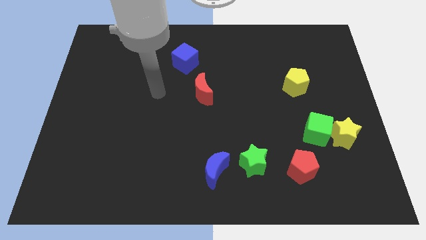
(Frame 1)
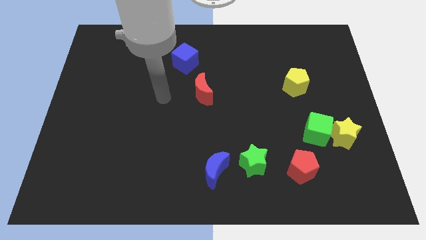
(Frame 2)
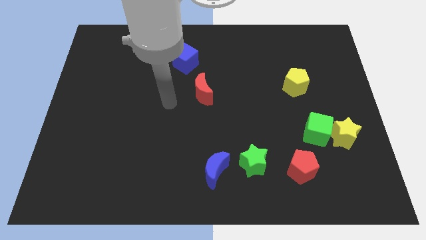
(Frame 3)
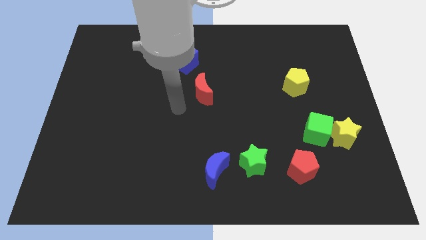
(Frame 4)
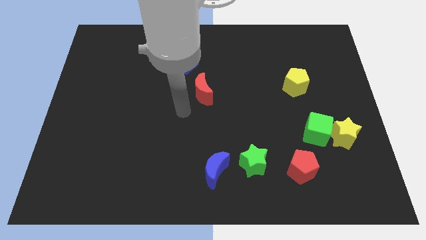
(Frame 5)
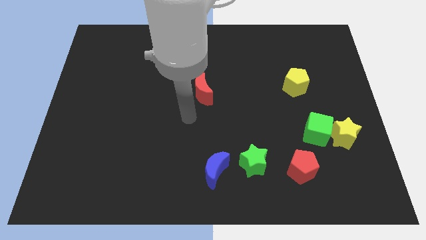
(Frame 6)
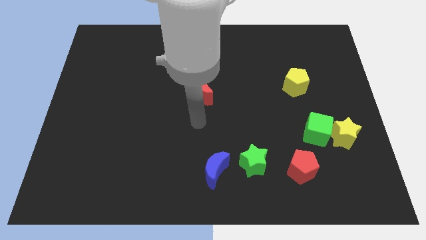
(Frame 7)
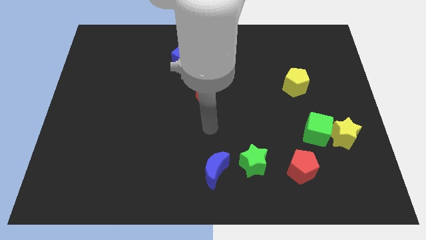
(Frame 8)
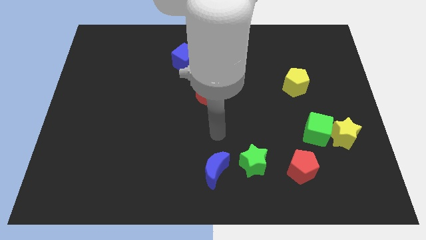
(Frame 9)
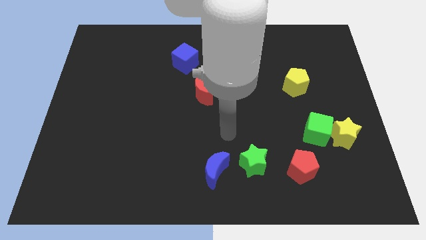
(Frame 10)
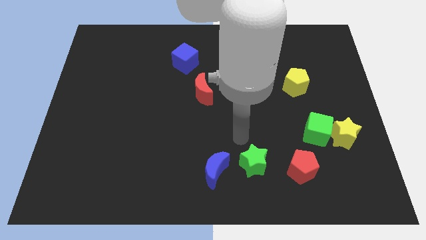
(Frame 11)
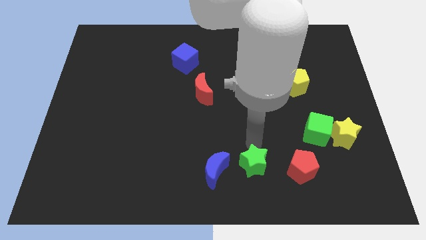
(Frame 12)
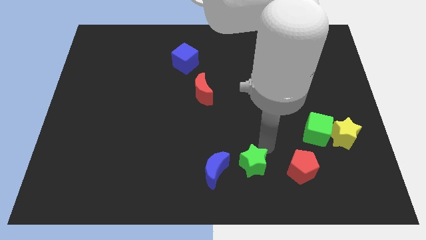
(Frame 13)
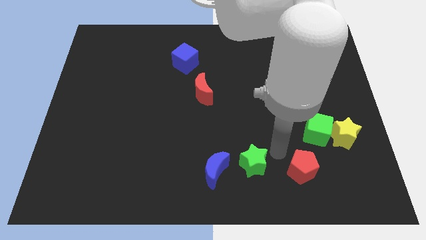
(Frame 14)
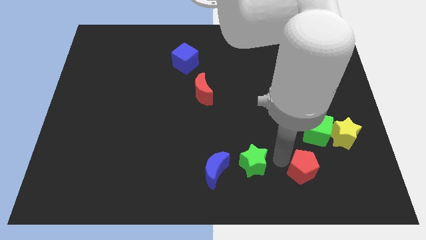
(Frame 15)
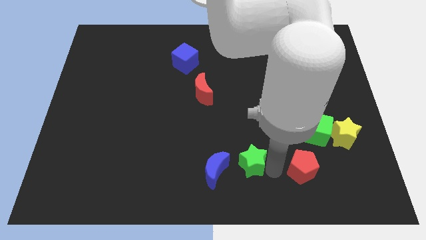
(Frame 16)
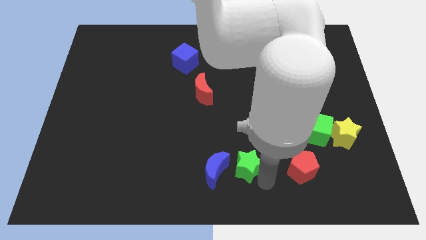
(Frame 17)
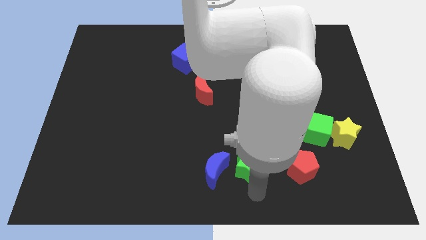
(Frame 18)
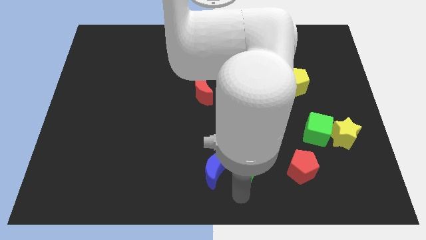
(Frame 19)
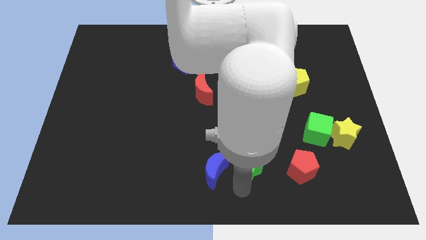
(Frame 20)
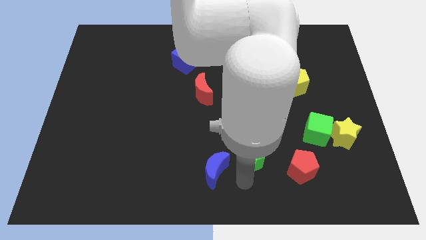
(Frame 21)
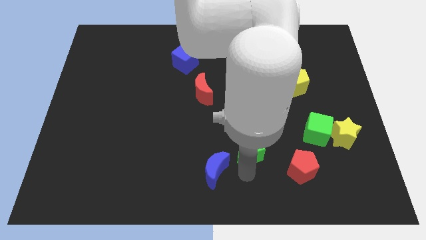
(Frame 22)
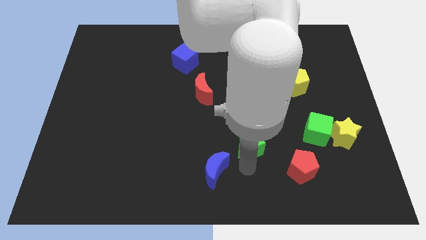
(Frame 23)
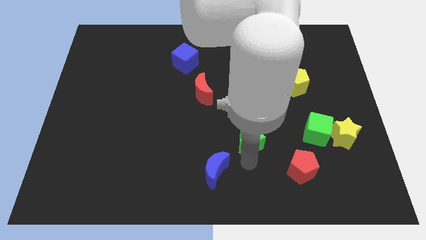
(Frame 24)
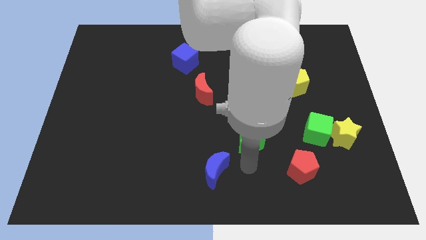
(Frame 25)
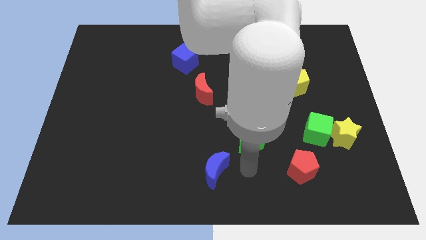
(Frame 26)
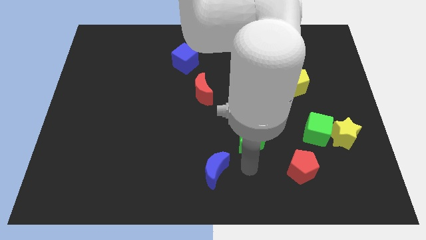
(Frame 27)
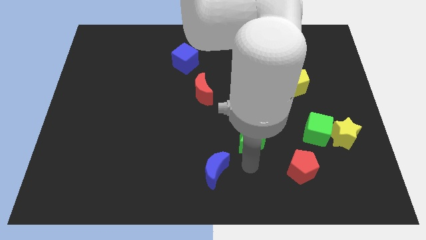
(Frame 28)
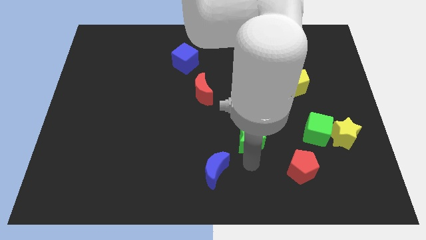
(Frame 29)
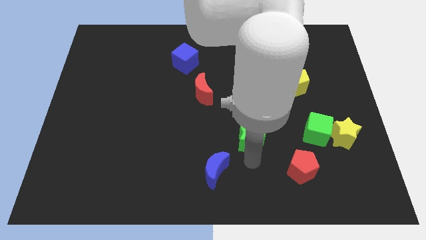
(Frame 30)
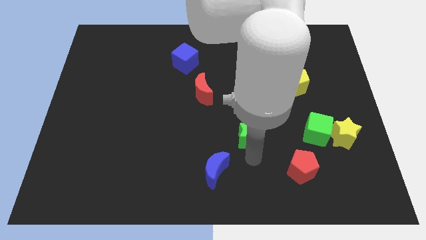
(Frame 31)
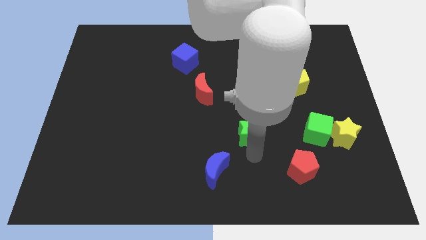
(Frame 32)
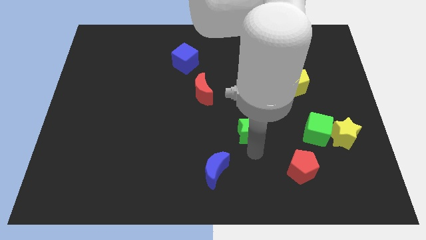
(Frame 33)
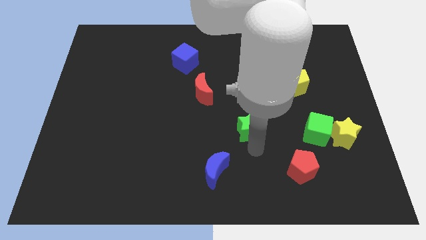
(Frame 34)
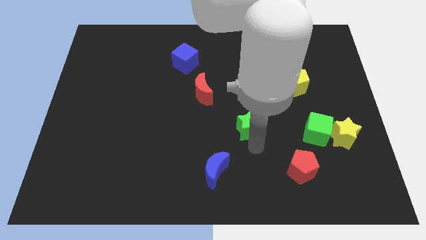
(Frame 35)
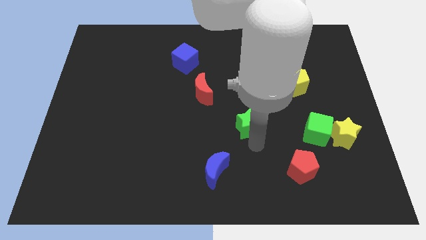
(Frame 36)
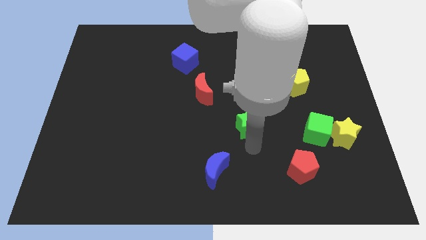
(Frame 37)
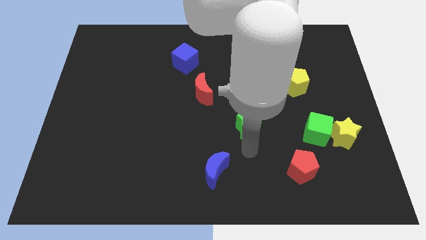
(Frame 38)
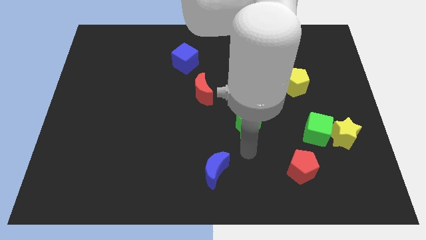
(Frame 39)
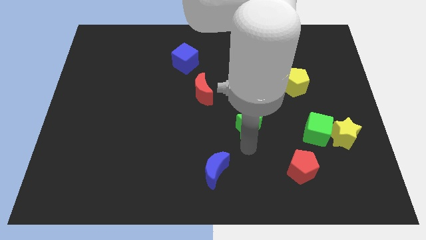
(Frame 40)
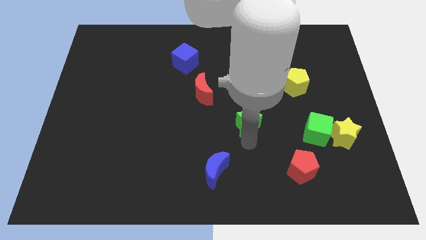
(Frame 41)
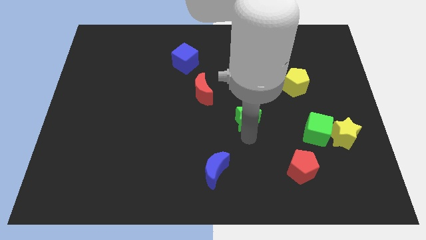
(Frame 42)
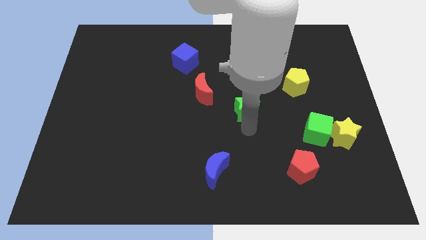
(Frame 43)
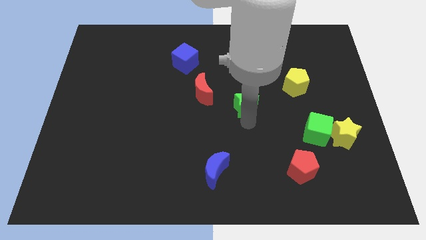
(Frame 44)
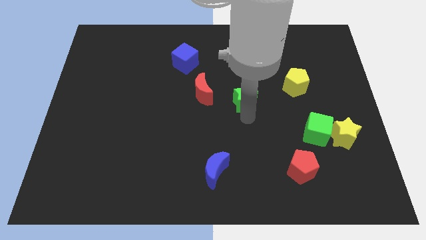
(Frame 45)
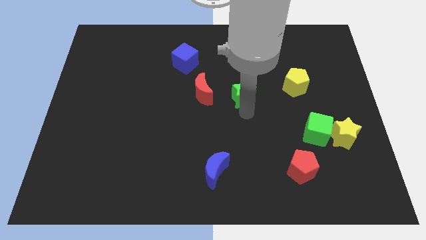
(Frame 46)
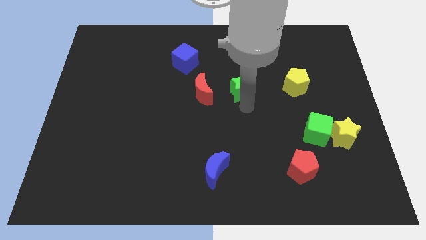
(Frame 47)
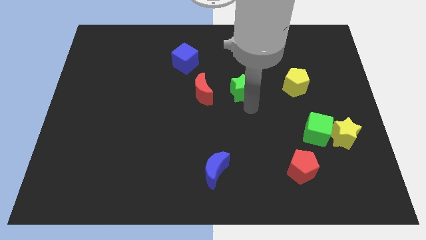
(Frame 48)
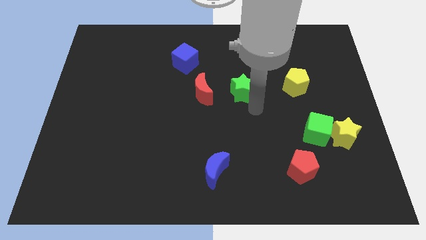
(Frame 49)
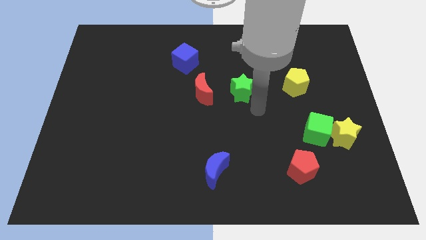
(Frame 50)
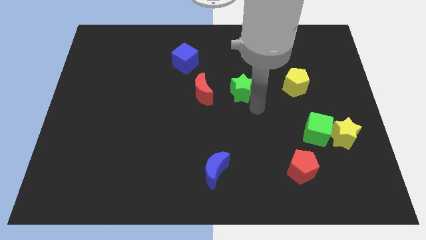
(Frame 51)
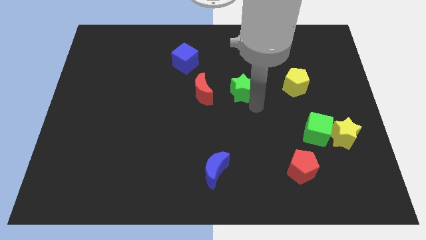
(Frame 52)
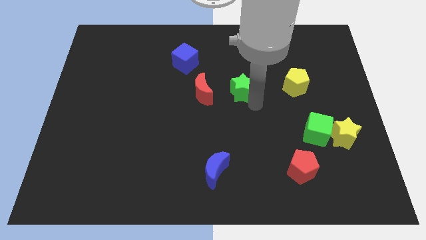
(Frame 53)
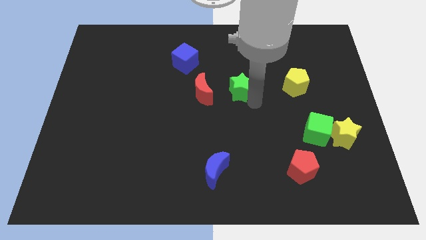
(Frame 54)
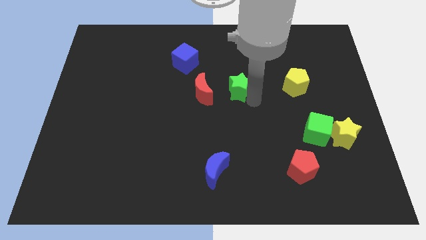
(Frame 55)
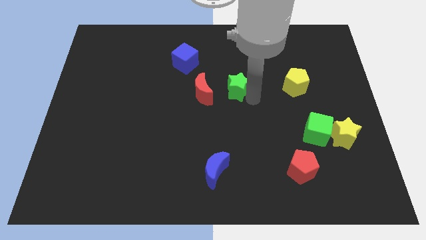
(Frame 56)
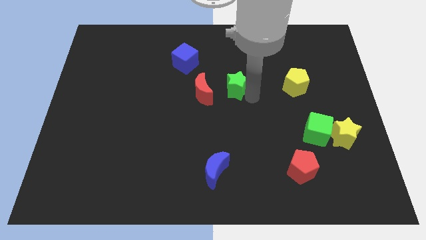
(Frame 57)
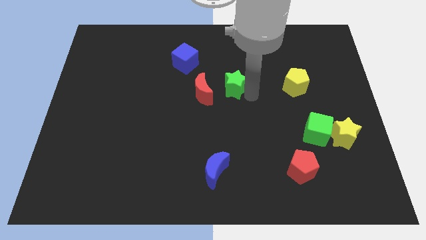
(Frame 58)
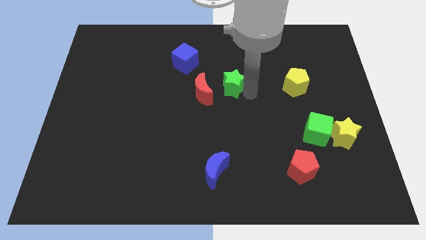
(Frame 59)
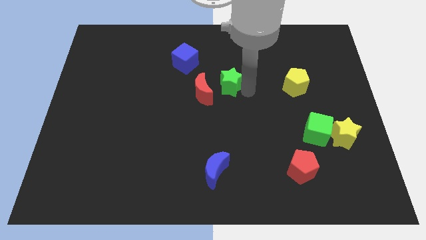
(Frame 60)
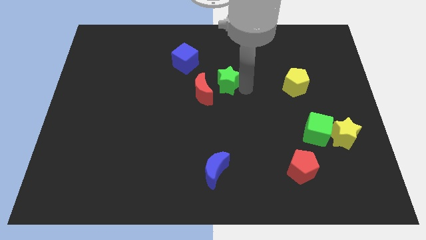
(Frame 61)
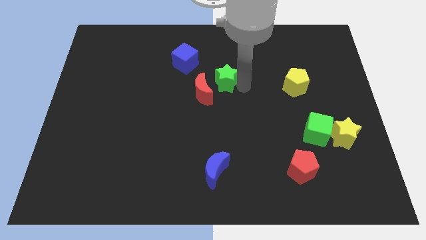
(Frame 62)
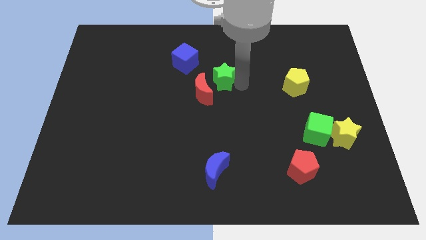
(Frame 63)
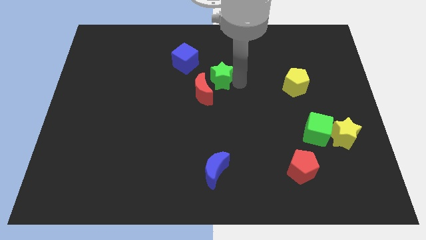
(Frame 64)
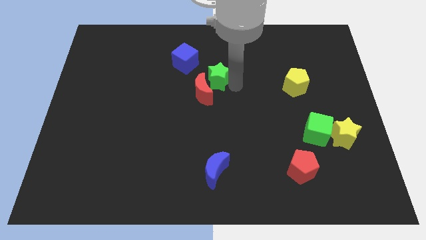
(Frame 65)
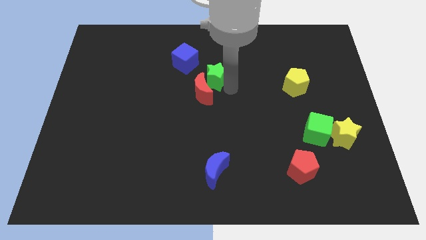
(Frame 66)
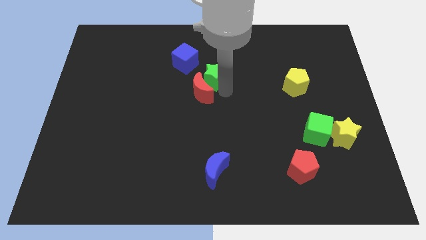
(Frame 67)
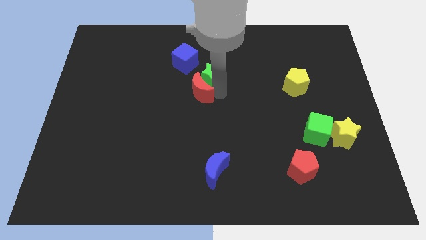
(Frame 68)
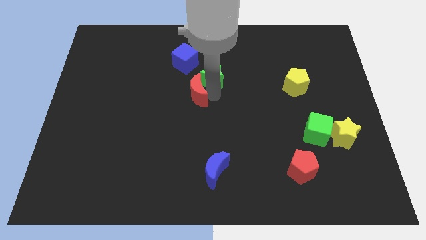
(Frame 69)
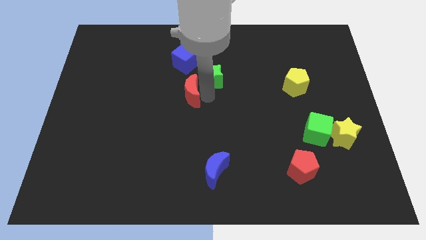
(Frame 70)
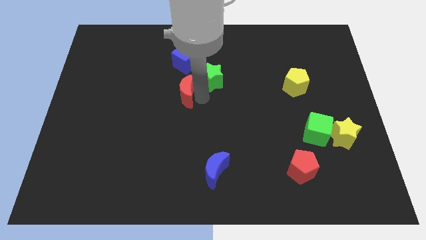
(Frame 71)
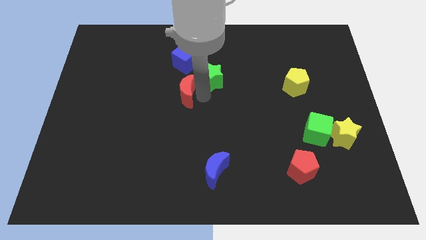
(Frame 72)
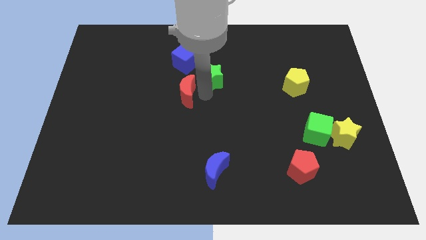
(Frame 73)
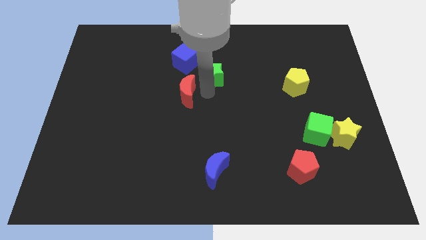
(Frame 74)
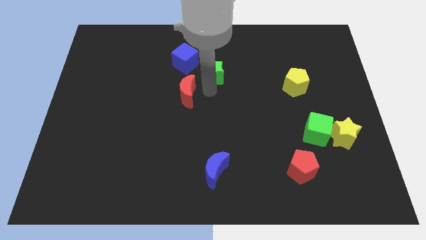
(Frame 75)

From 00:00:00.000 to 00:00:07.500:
put the green star just right of the blue cube

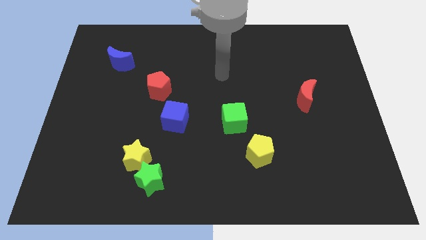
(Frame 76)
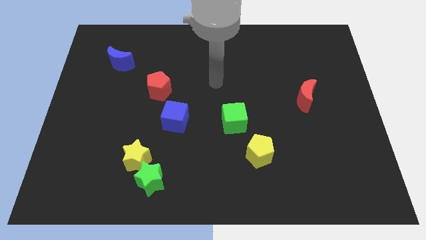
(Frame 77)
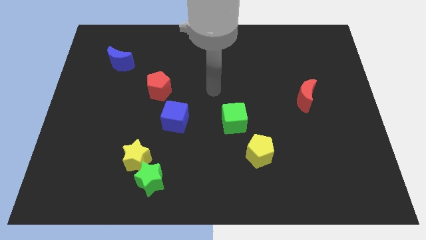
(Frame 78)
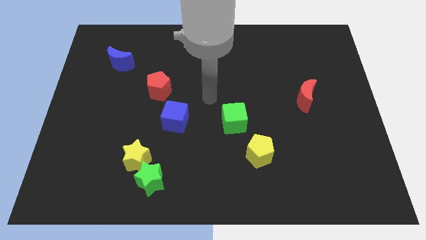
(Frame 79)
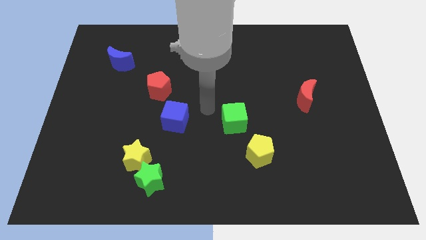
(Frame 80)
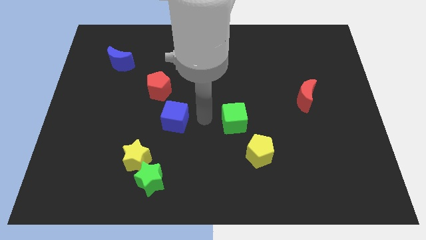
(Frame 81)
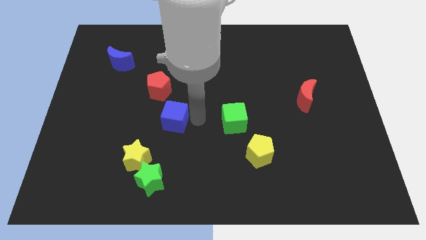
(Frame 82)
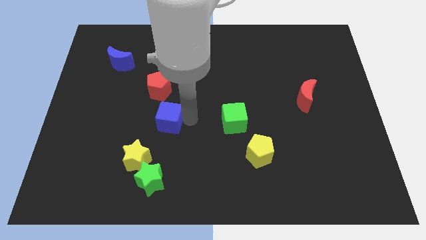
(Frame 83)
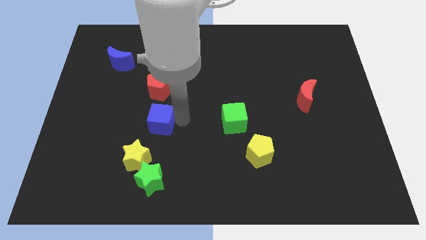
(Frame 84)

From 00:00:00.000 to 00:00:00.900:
push the blue cube above the yellow star

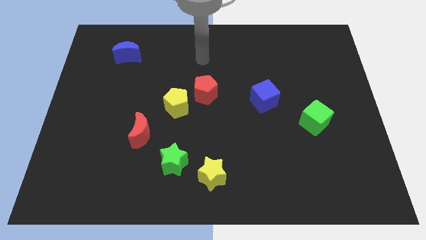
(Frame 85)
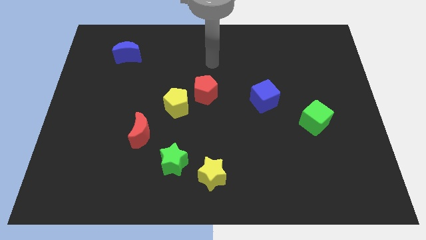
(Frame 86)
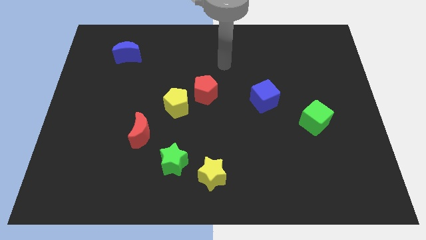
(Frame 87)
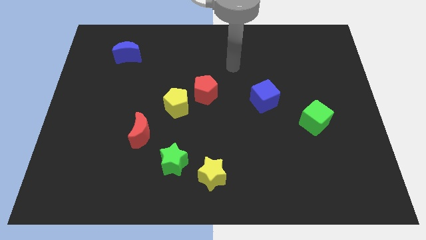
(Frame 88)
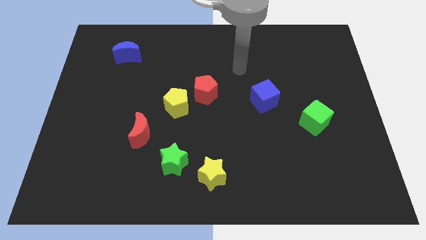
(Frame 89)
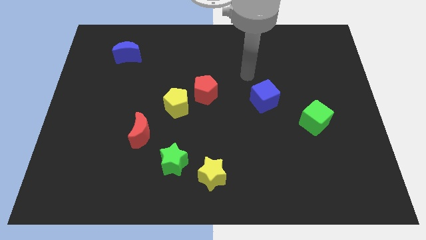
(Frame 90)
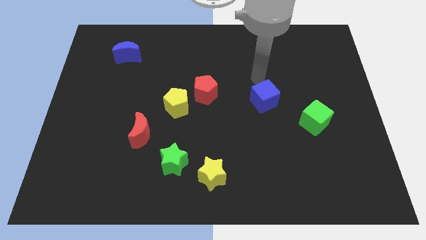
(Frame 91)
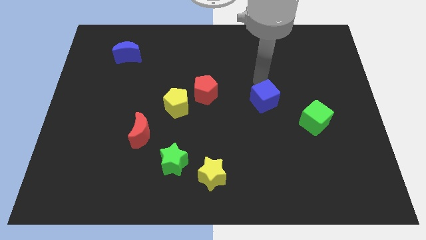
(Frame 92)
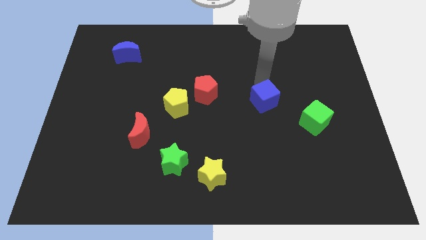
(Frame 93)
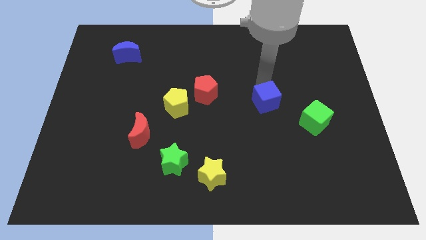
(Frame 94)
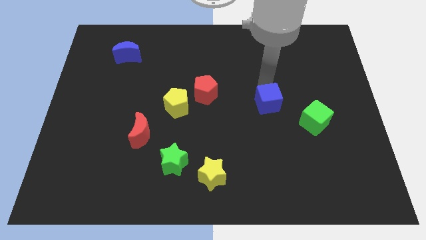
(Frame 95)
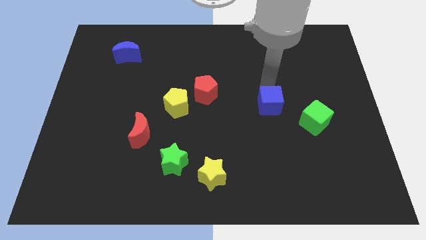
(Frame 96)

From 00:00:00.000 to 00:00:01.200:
move the blue cube just left of the green cube
